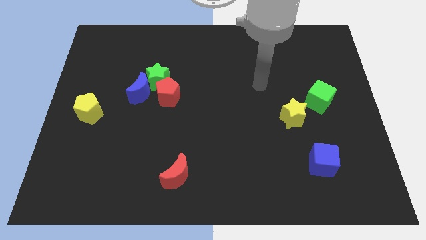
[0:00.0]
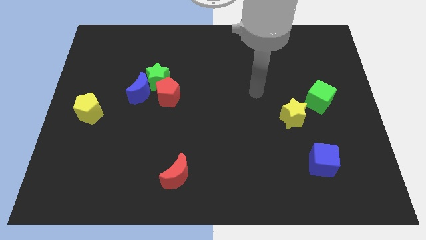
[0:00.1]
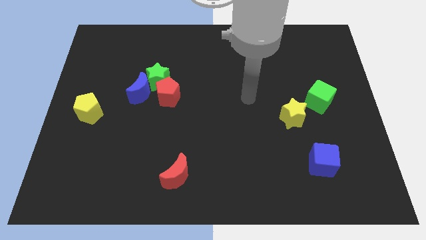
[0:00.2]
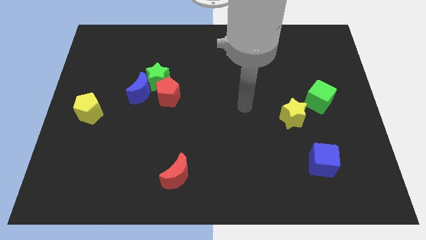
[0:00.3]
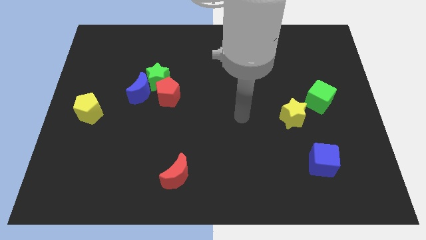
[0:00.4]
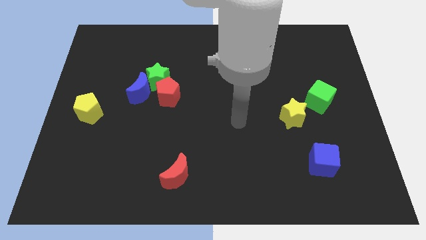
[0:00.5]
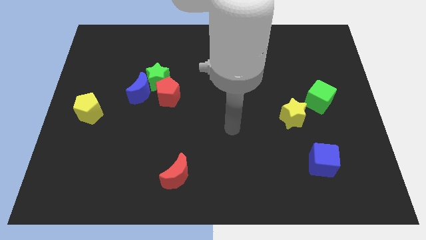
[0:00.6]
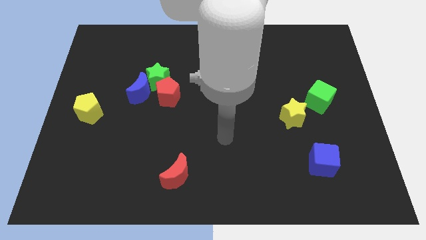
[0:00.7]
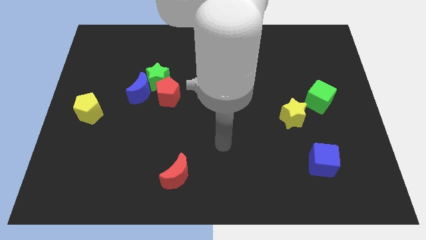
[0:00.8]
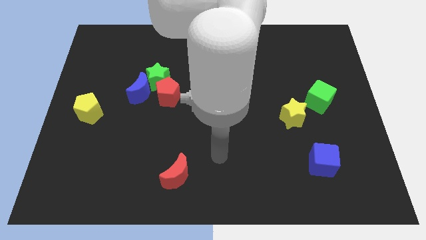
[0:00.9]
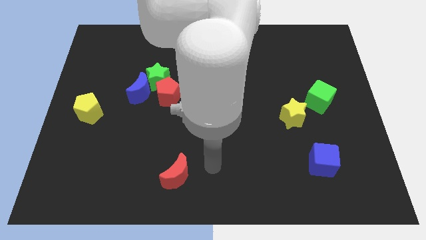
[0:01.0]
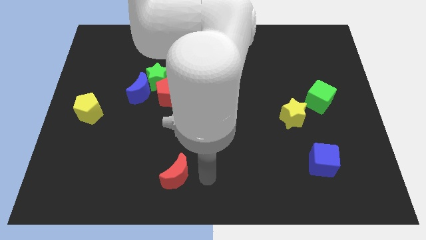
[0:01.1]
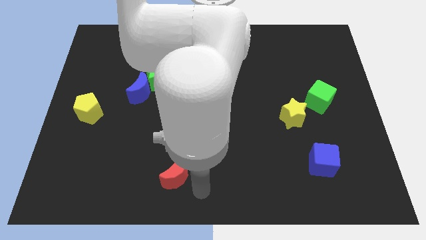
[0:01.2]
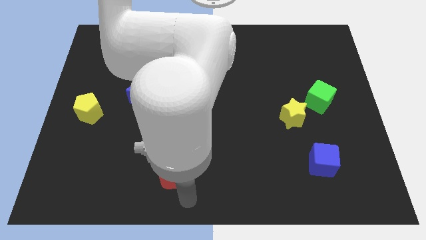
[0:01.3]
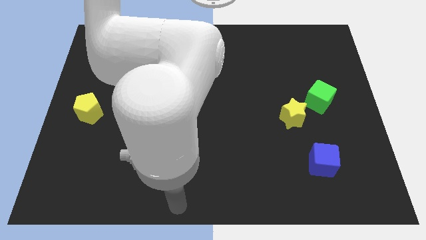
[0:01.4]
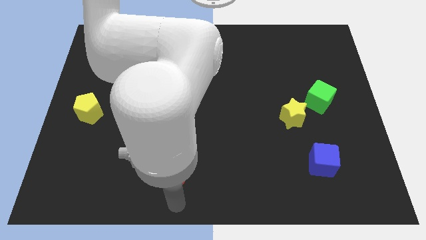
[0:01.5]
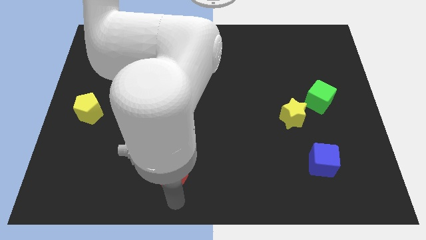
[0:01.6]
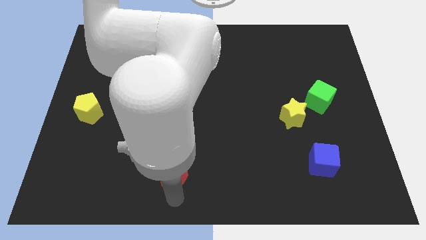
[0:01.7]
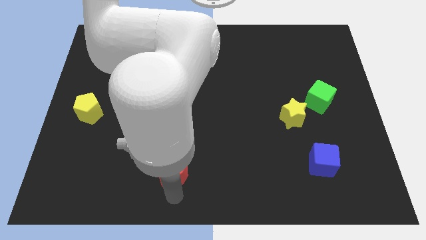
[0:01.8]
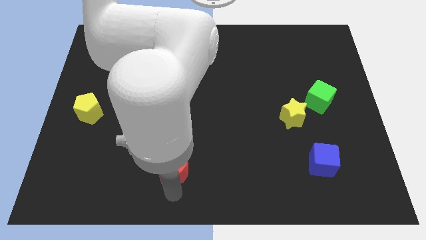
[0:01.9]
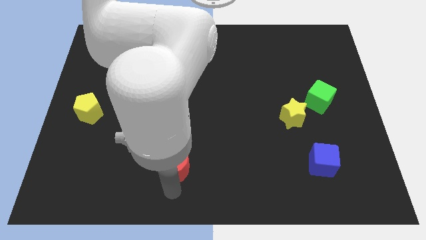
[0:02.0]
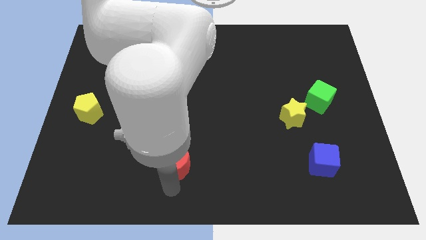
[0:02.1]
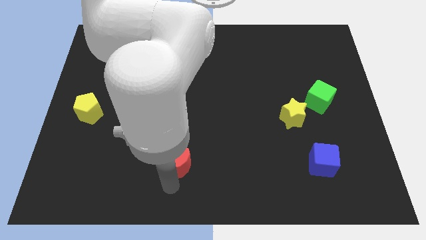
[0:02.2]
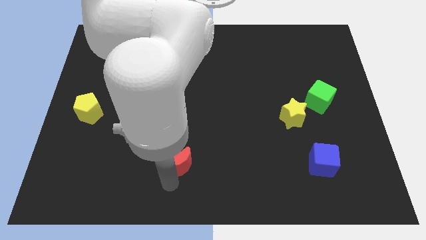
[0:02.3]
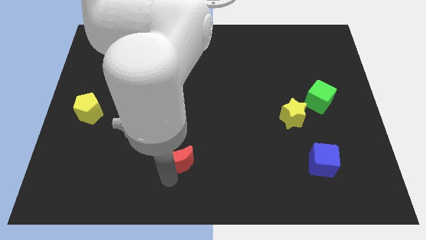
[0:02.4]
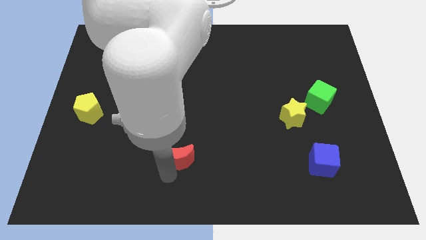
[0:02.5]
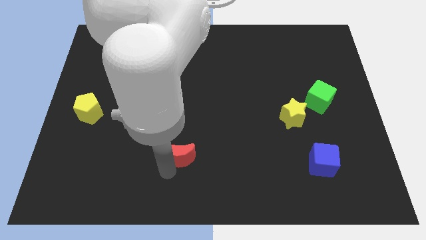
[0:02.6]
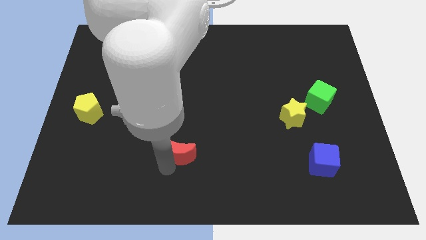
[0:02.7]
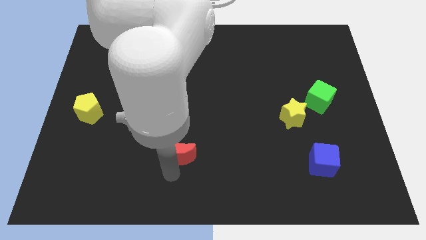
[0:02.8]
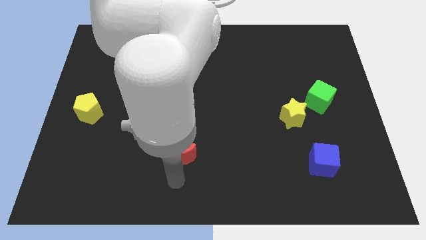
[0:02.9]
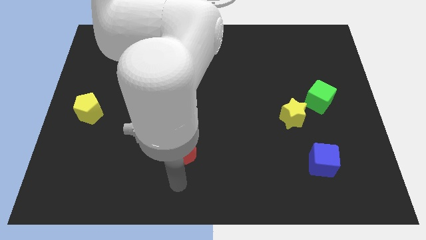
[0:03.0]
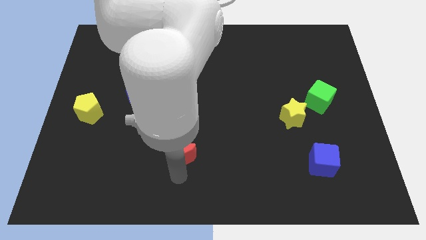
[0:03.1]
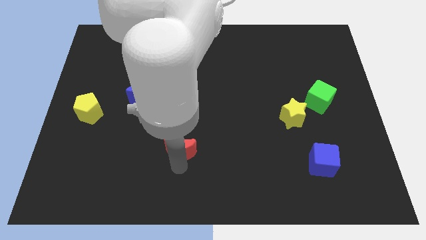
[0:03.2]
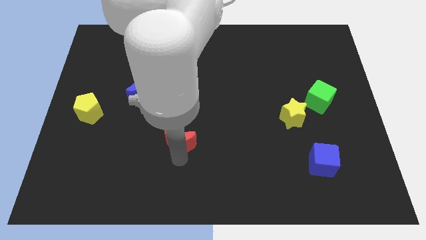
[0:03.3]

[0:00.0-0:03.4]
move the red moon somewhat up

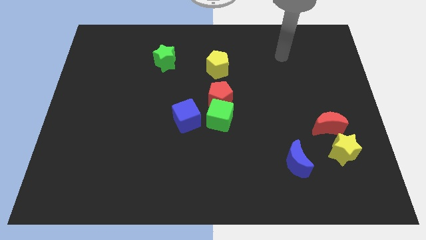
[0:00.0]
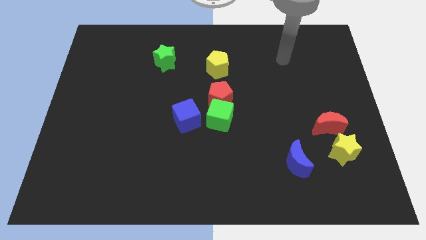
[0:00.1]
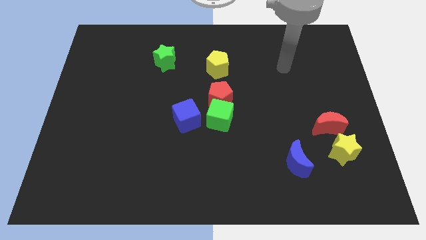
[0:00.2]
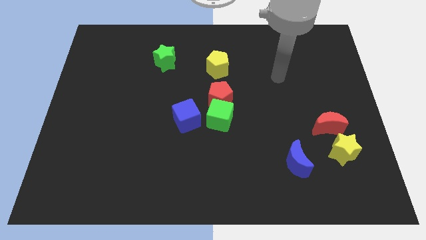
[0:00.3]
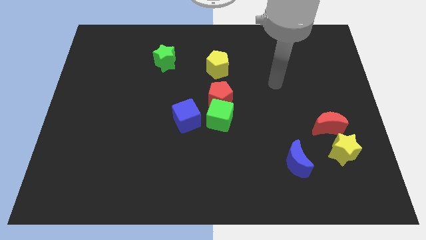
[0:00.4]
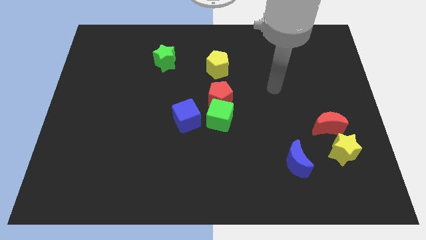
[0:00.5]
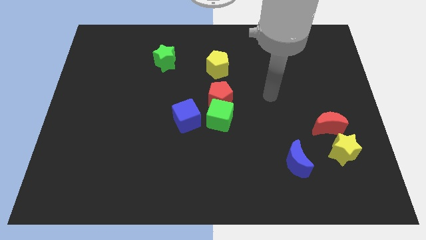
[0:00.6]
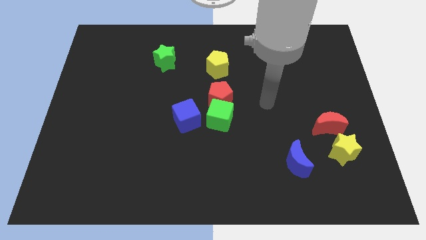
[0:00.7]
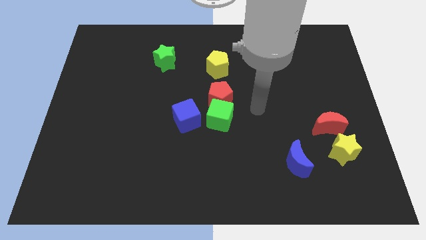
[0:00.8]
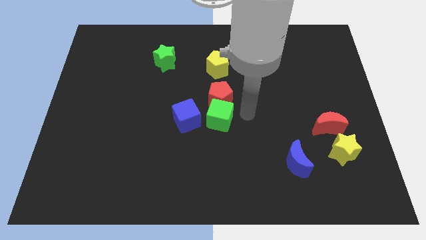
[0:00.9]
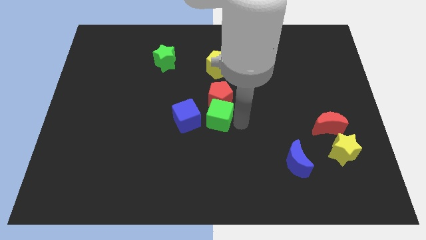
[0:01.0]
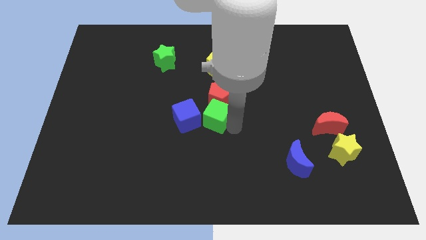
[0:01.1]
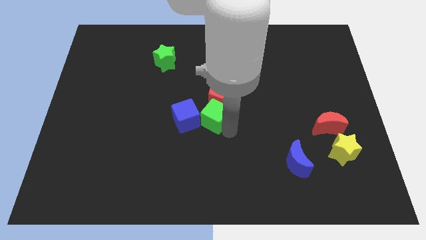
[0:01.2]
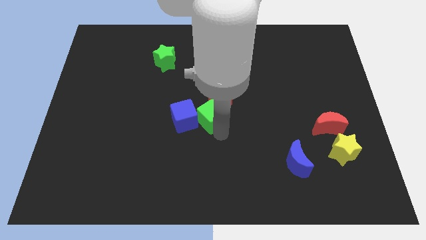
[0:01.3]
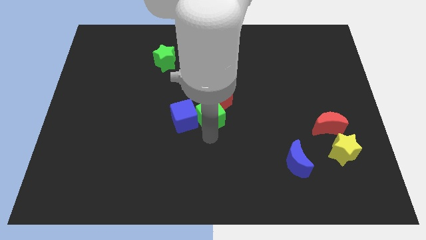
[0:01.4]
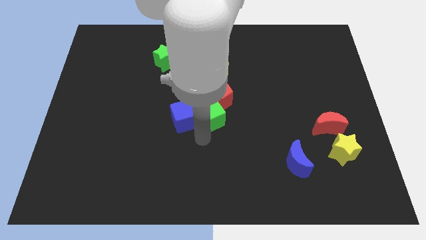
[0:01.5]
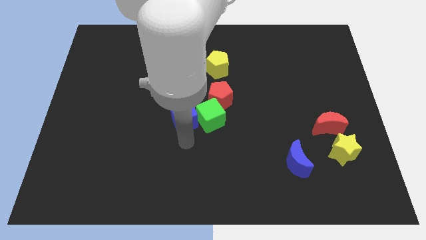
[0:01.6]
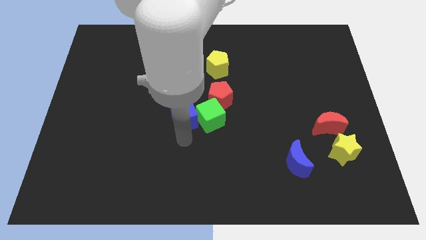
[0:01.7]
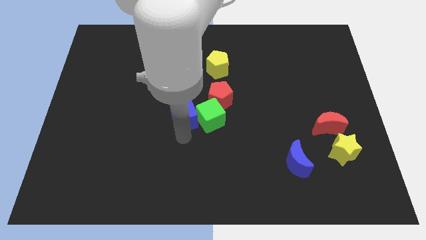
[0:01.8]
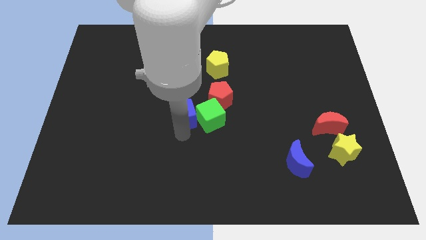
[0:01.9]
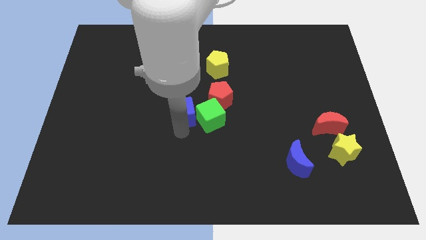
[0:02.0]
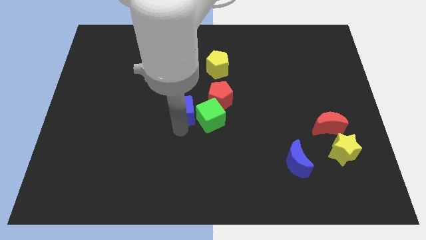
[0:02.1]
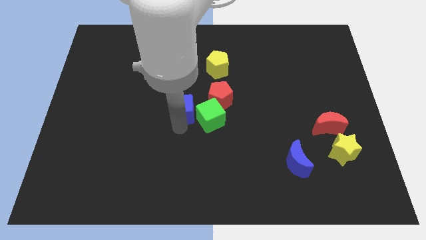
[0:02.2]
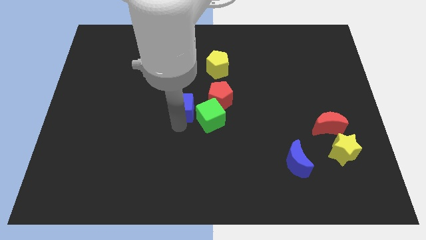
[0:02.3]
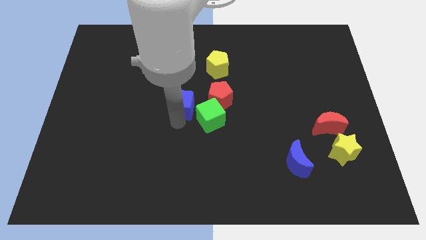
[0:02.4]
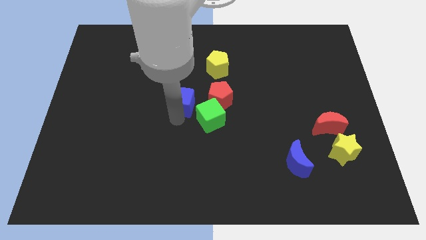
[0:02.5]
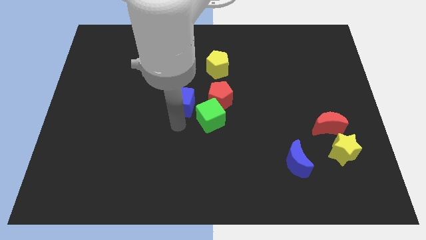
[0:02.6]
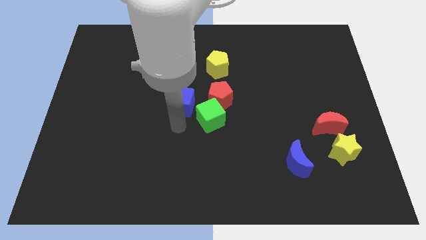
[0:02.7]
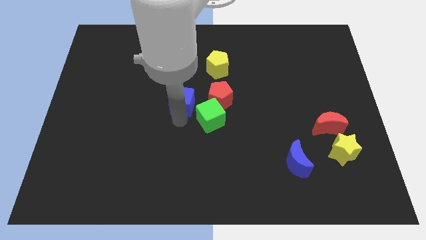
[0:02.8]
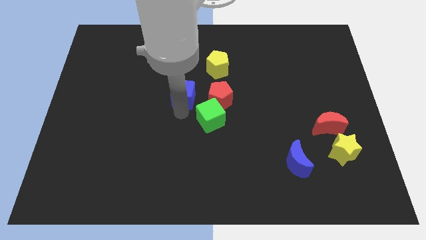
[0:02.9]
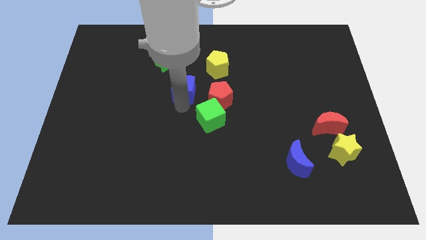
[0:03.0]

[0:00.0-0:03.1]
push the blue cube upwards somewhat

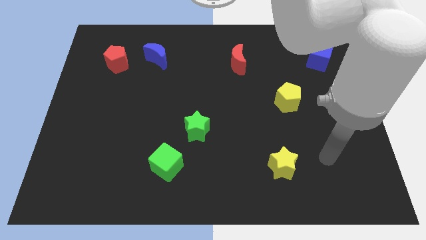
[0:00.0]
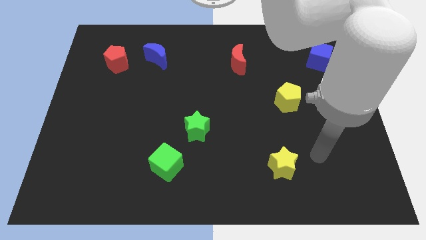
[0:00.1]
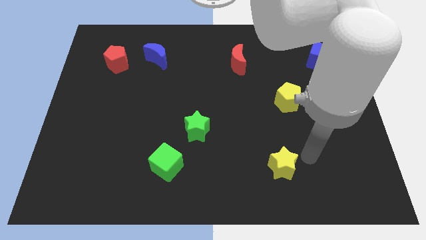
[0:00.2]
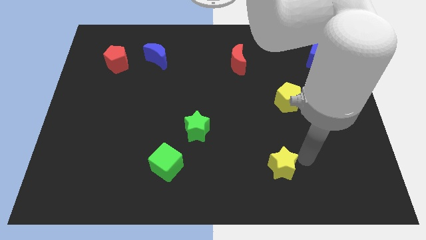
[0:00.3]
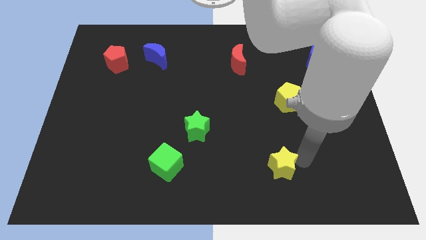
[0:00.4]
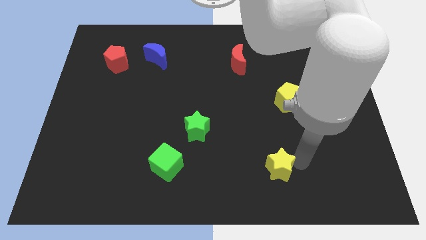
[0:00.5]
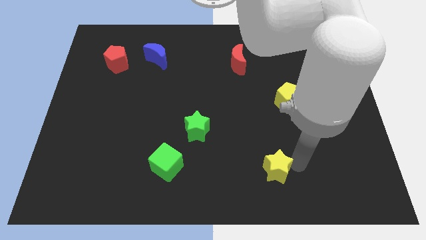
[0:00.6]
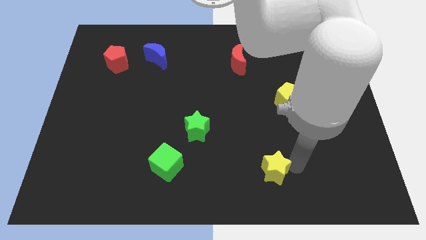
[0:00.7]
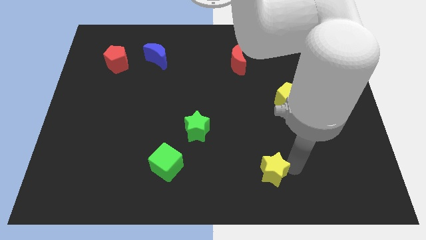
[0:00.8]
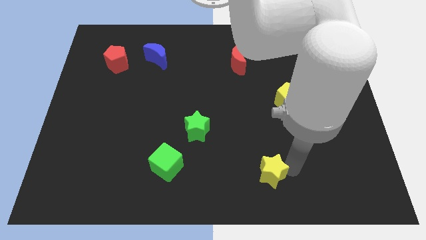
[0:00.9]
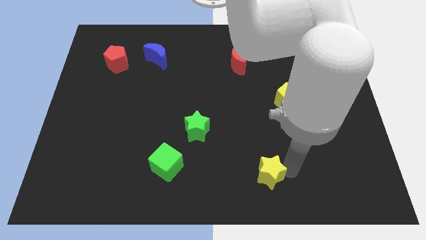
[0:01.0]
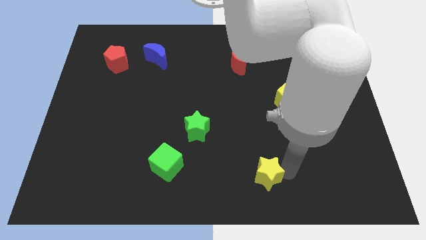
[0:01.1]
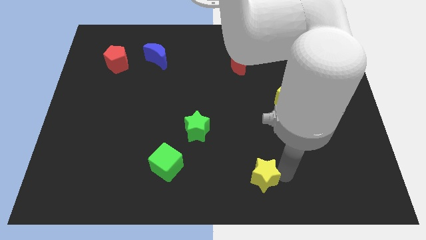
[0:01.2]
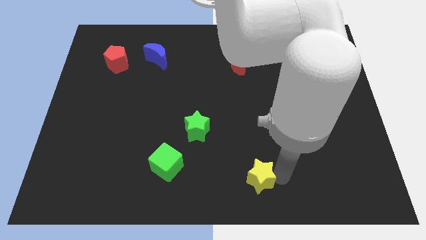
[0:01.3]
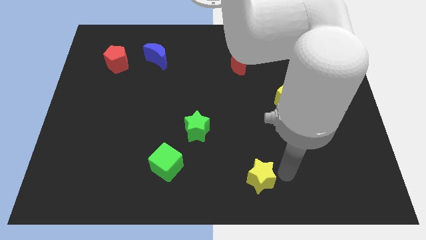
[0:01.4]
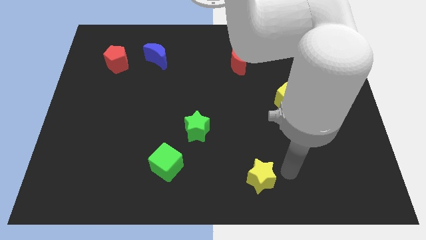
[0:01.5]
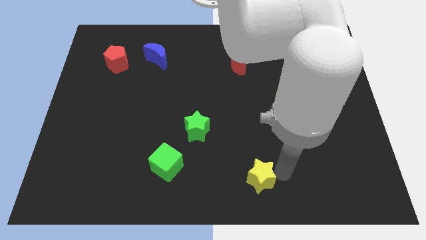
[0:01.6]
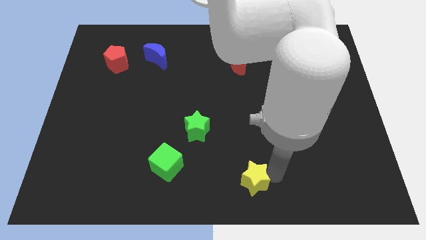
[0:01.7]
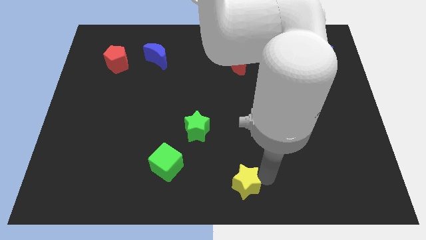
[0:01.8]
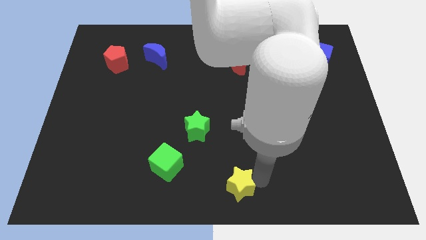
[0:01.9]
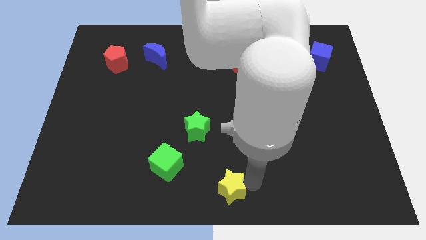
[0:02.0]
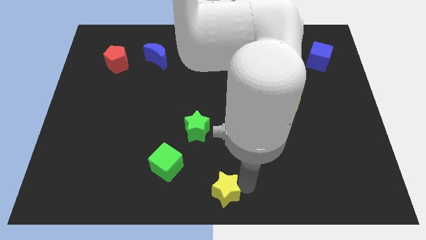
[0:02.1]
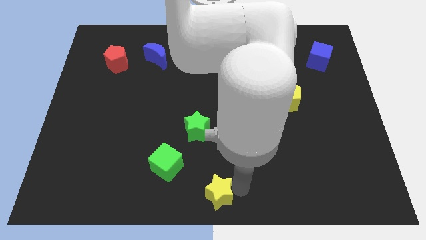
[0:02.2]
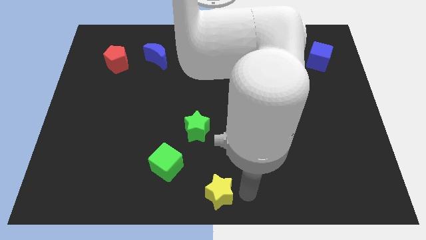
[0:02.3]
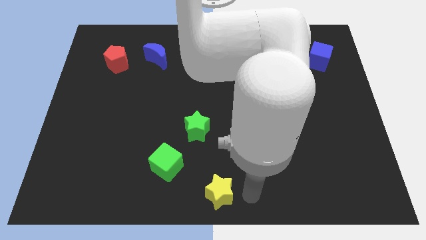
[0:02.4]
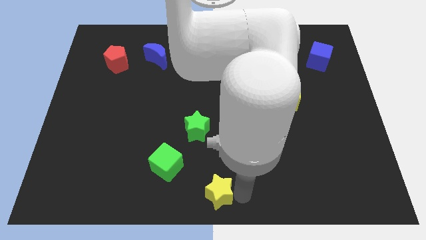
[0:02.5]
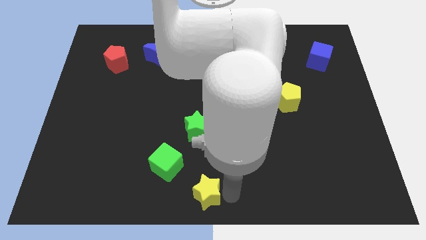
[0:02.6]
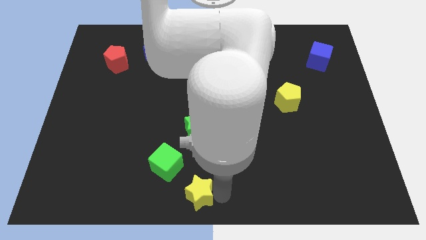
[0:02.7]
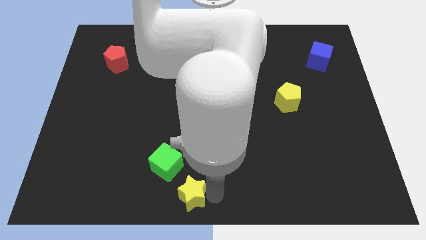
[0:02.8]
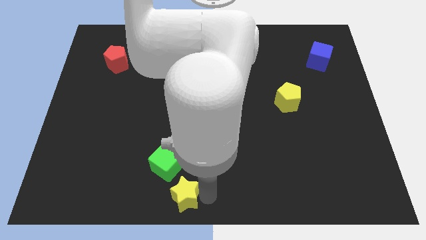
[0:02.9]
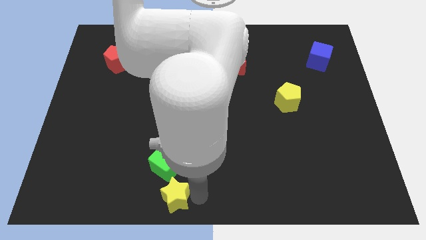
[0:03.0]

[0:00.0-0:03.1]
move the yellow star left
